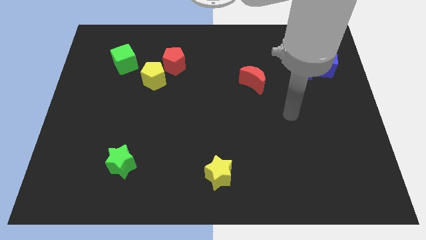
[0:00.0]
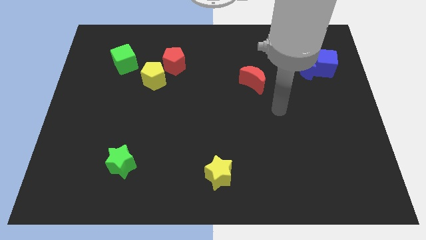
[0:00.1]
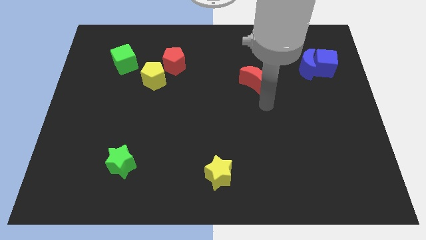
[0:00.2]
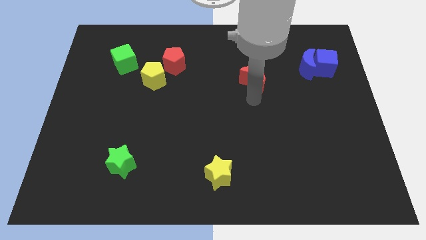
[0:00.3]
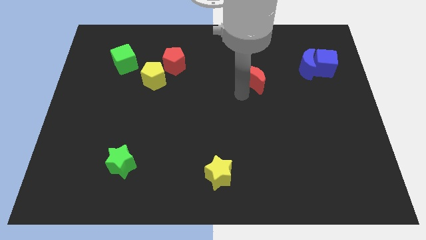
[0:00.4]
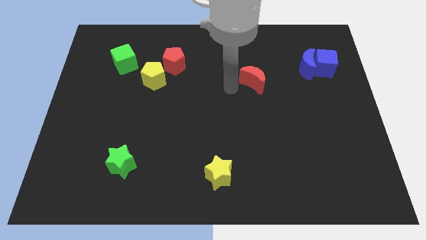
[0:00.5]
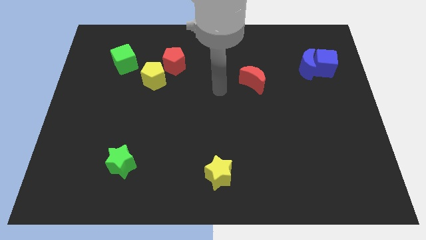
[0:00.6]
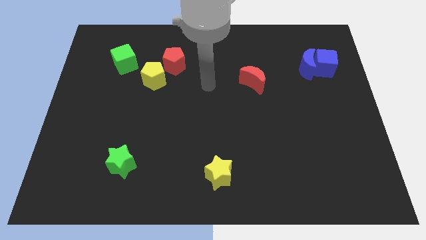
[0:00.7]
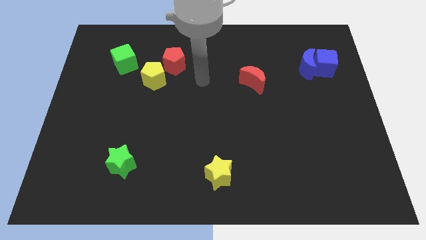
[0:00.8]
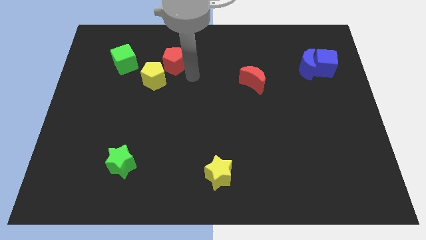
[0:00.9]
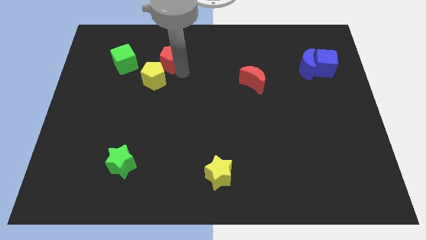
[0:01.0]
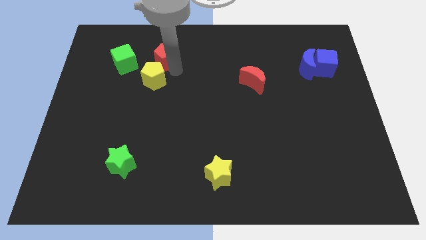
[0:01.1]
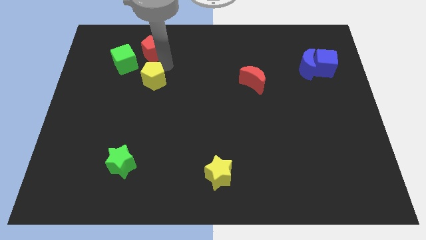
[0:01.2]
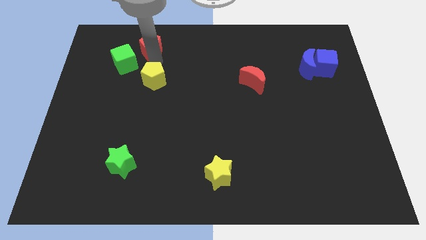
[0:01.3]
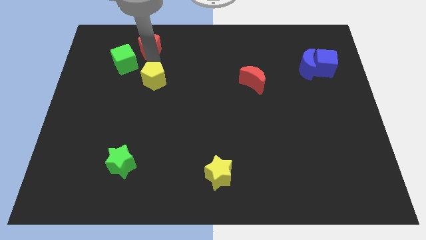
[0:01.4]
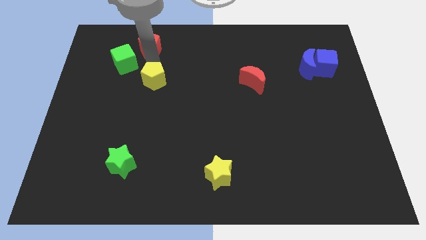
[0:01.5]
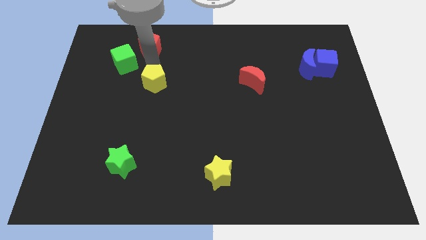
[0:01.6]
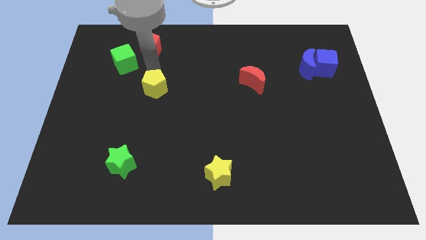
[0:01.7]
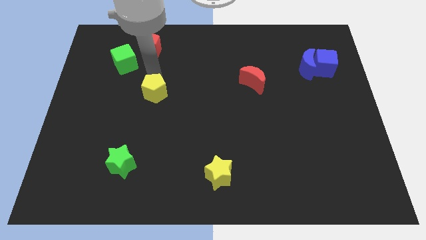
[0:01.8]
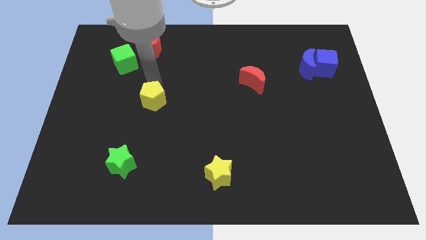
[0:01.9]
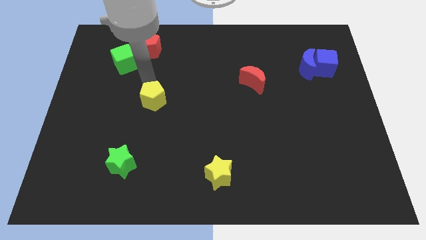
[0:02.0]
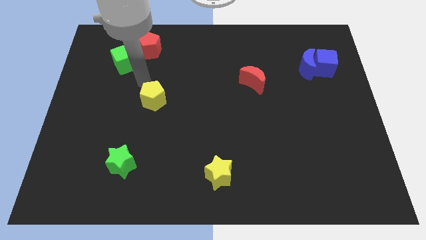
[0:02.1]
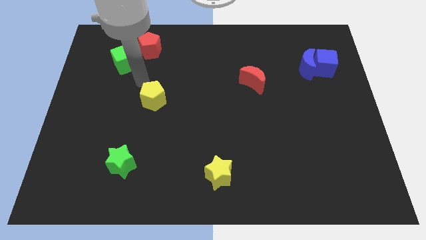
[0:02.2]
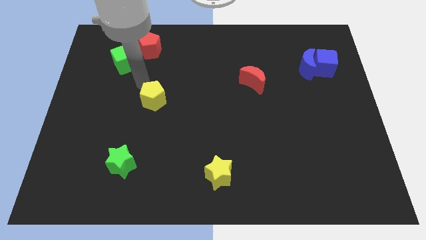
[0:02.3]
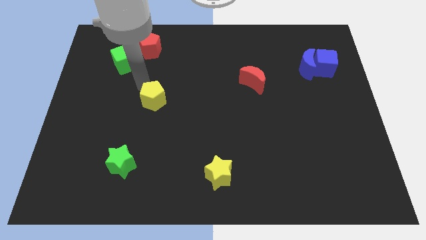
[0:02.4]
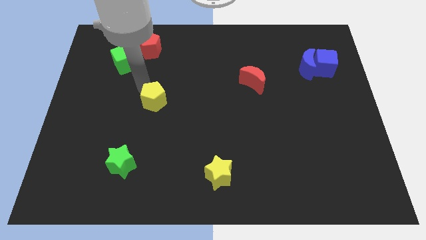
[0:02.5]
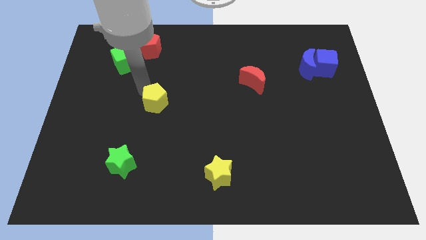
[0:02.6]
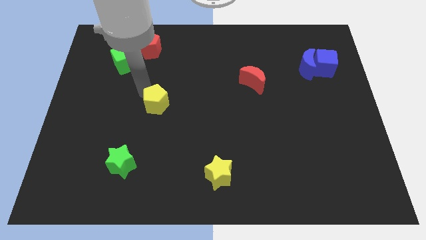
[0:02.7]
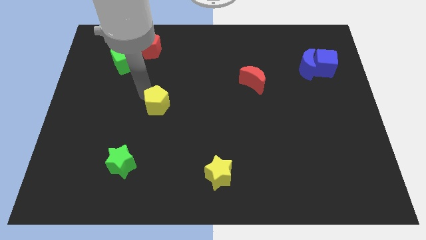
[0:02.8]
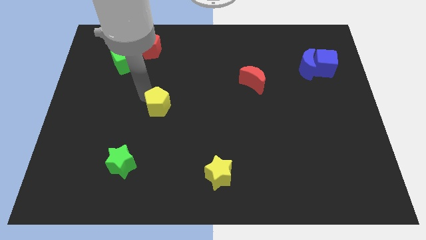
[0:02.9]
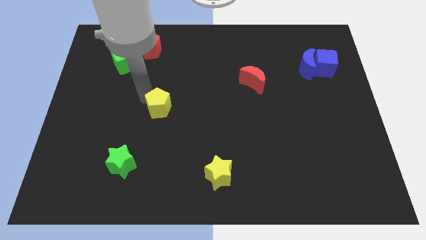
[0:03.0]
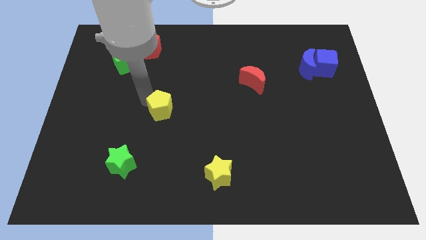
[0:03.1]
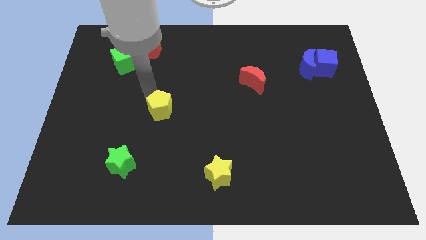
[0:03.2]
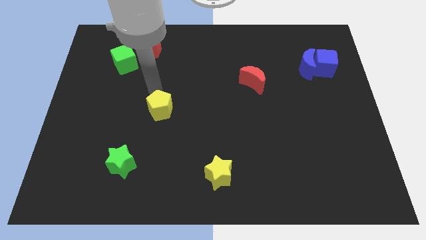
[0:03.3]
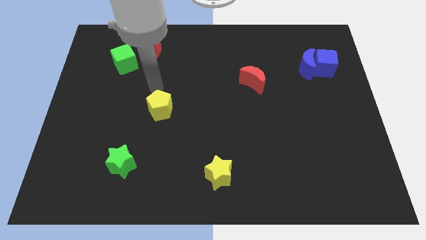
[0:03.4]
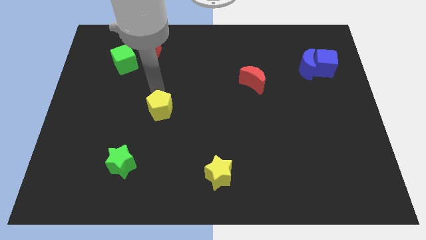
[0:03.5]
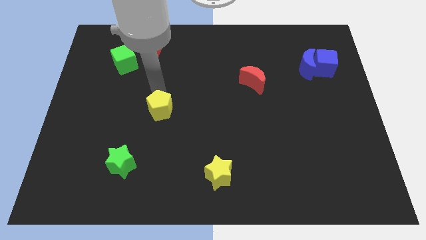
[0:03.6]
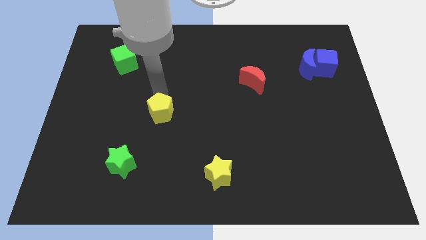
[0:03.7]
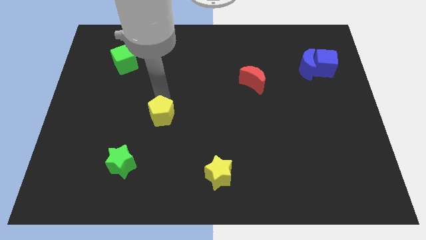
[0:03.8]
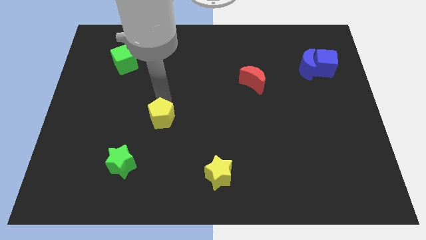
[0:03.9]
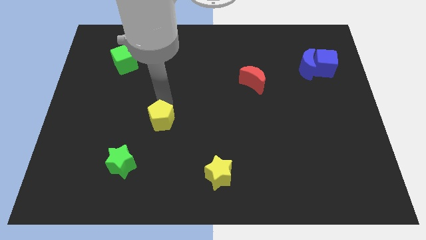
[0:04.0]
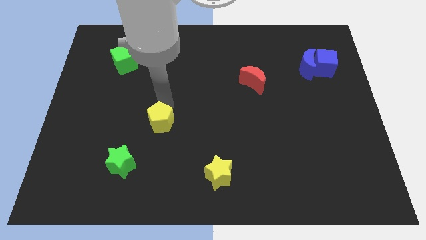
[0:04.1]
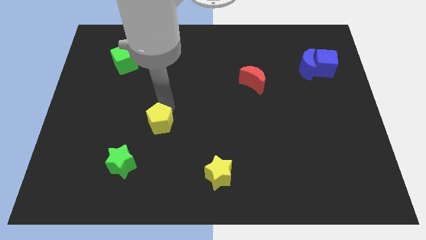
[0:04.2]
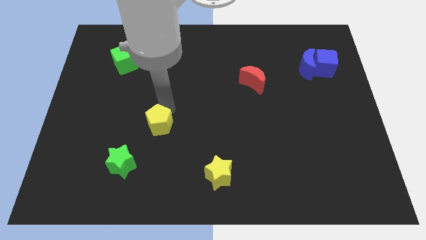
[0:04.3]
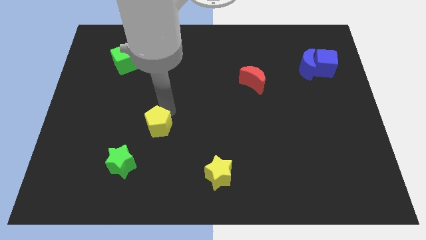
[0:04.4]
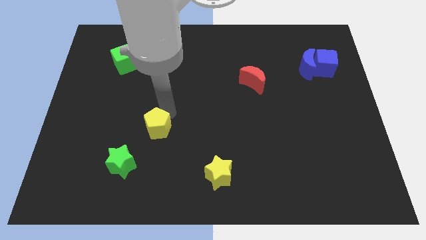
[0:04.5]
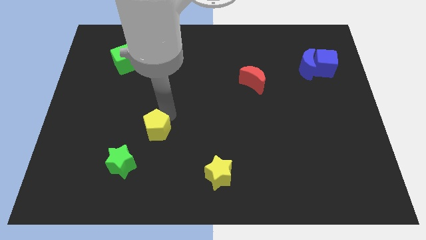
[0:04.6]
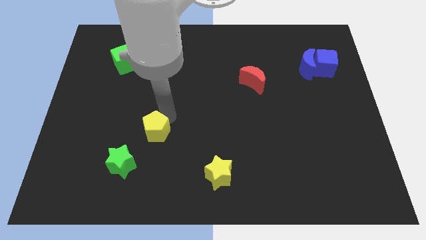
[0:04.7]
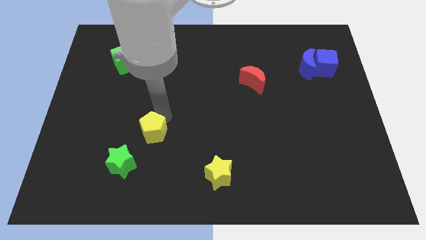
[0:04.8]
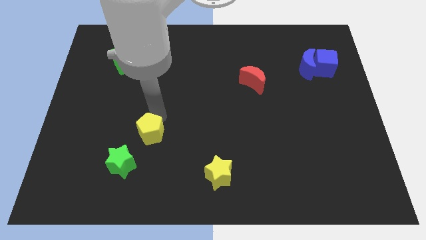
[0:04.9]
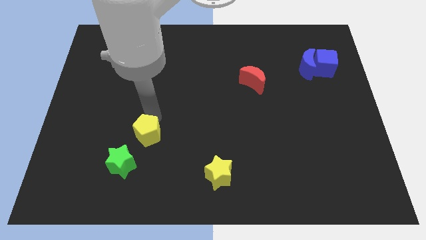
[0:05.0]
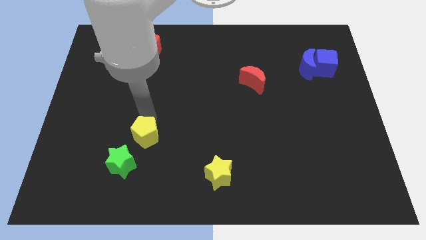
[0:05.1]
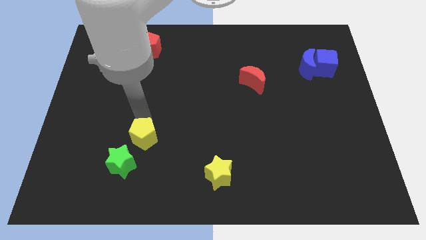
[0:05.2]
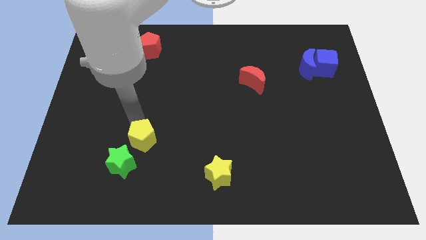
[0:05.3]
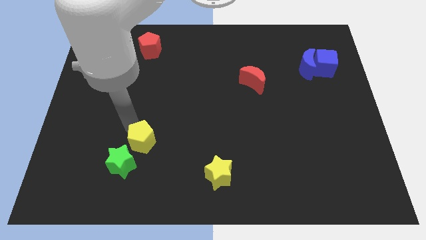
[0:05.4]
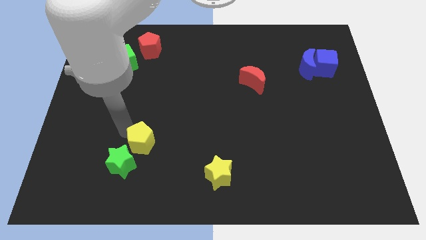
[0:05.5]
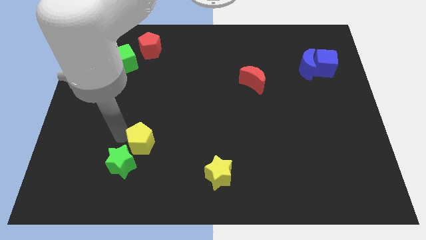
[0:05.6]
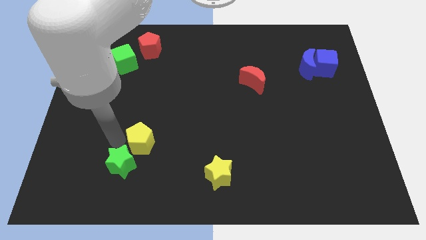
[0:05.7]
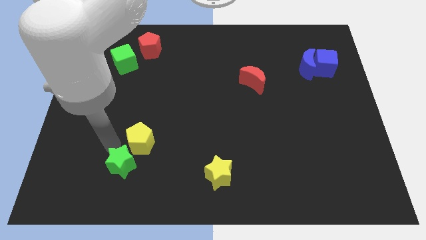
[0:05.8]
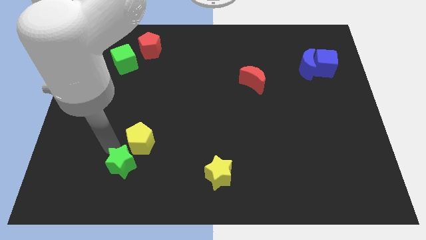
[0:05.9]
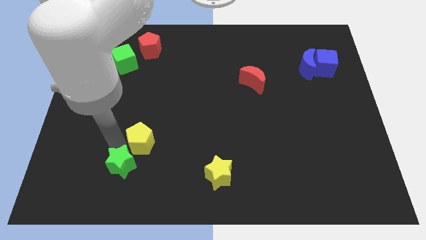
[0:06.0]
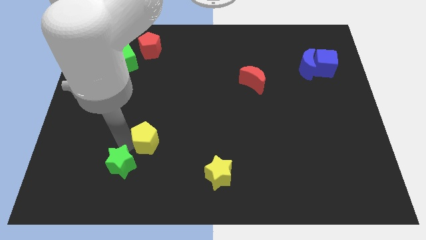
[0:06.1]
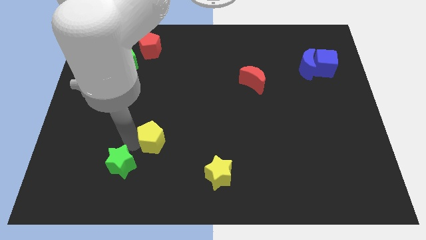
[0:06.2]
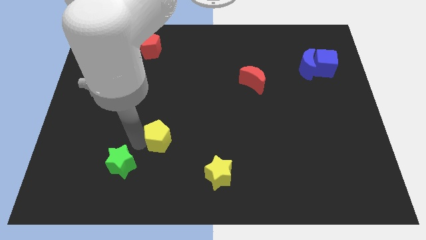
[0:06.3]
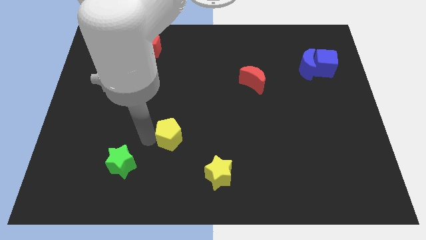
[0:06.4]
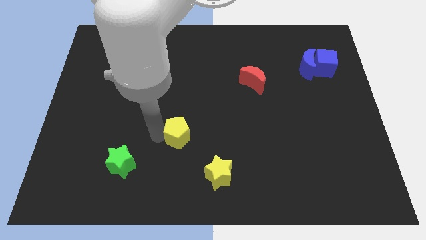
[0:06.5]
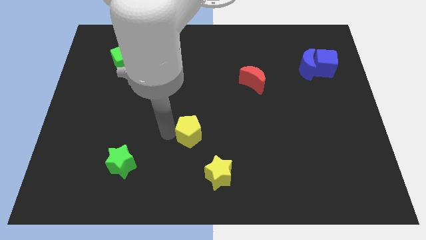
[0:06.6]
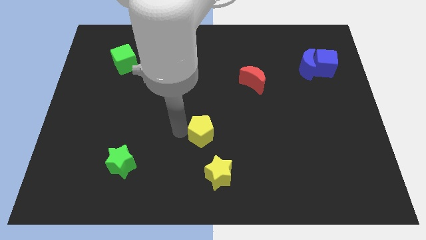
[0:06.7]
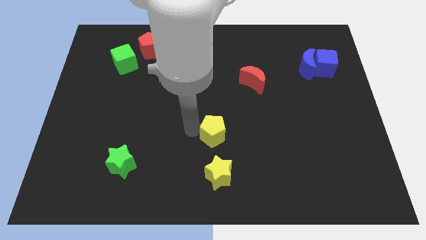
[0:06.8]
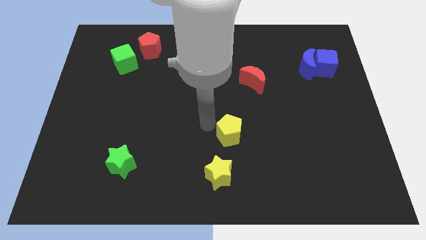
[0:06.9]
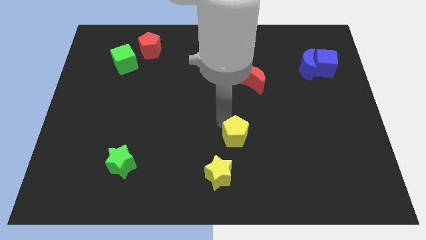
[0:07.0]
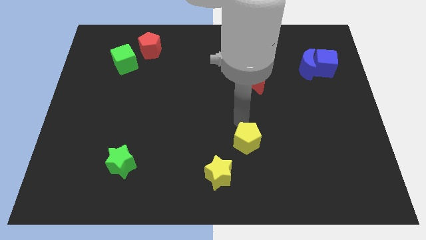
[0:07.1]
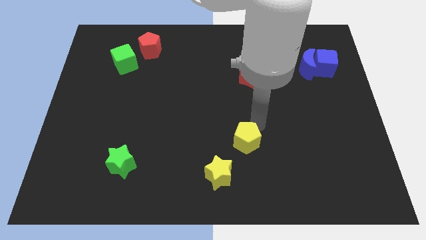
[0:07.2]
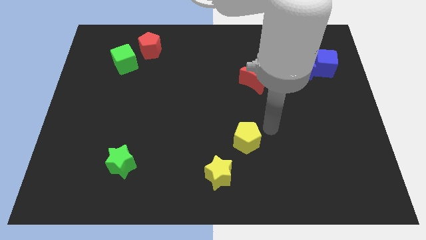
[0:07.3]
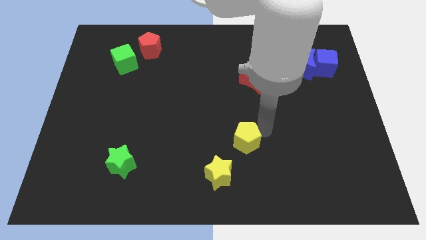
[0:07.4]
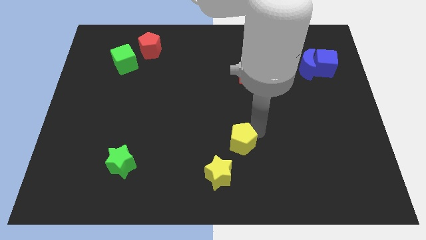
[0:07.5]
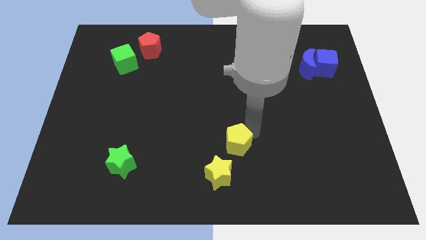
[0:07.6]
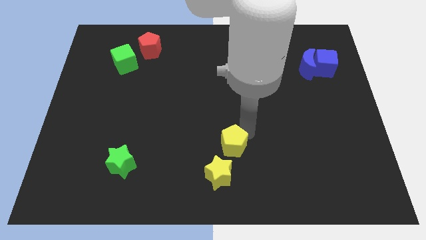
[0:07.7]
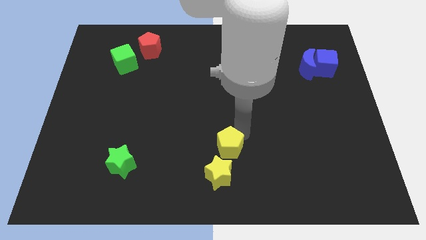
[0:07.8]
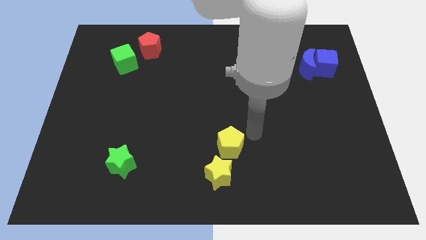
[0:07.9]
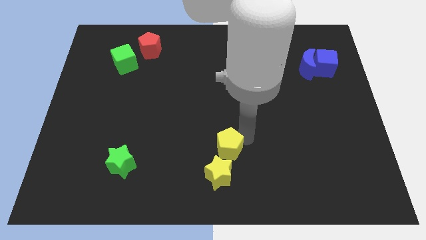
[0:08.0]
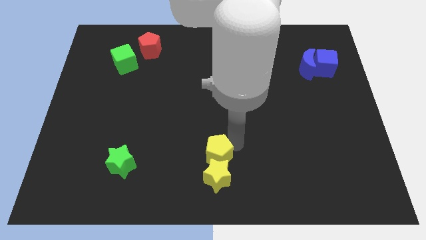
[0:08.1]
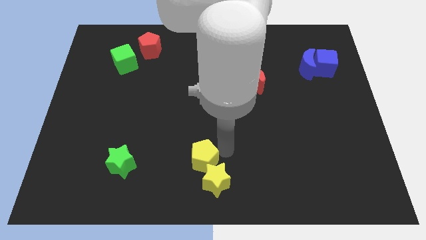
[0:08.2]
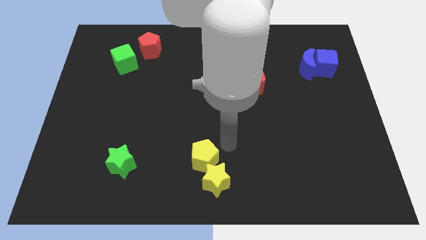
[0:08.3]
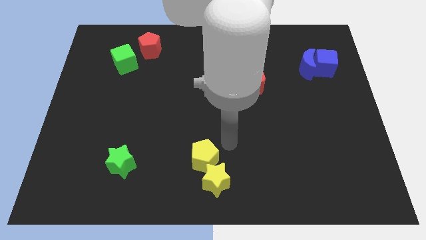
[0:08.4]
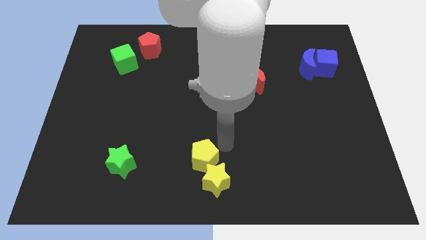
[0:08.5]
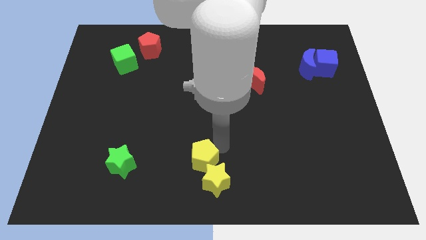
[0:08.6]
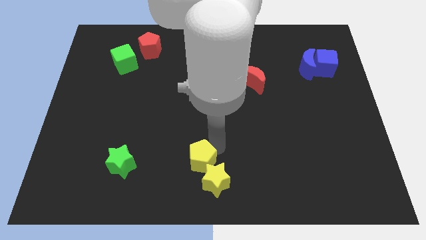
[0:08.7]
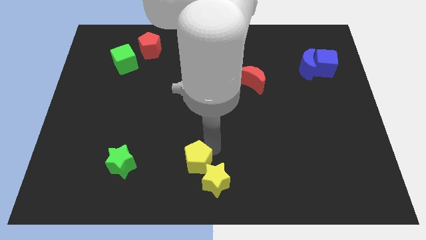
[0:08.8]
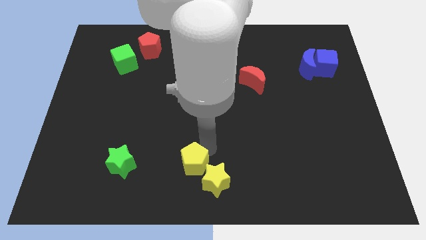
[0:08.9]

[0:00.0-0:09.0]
put the yellow pentagon to the left of the yellow star
